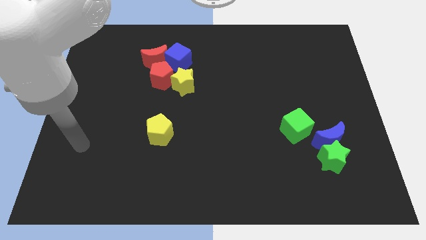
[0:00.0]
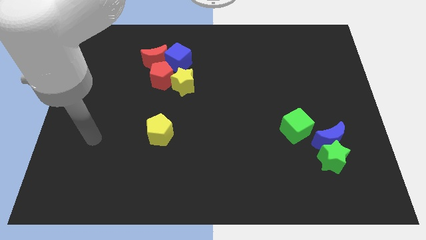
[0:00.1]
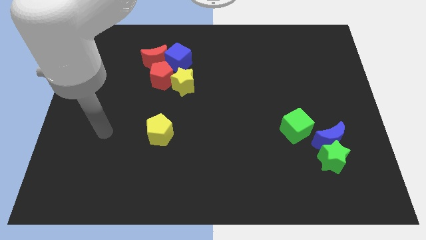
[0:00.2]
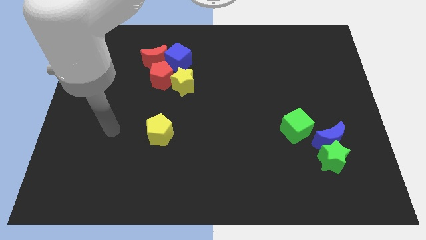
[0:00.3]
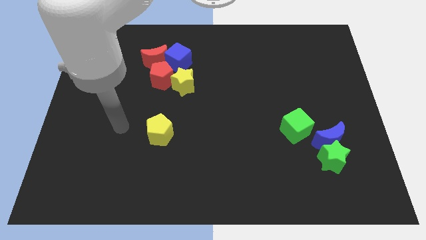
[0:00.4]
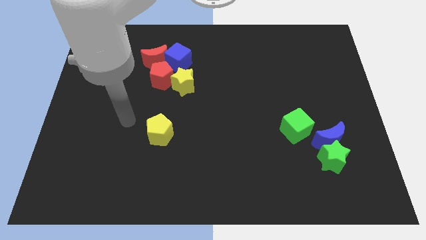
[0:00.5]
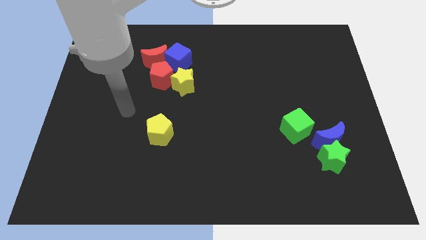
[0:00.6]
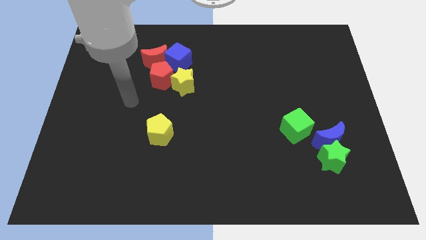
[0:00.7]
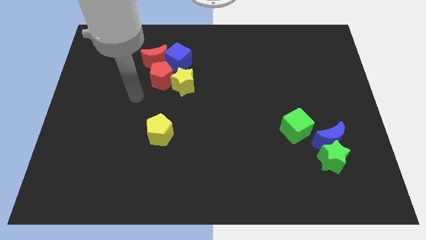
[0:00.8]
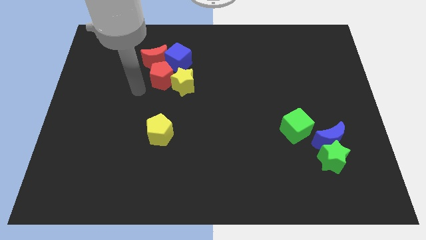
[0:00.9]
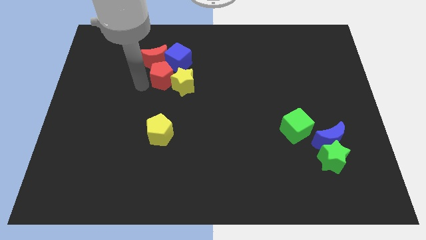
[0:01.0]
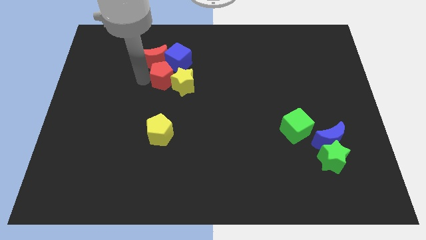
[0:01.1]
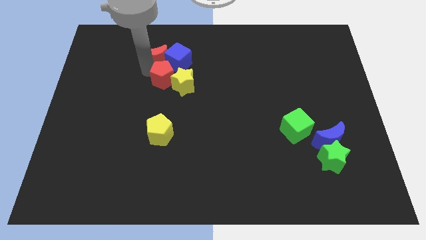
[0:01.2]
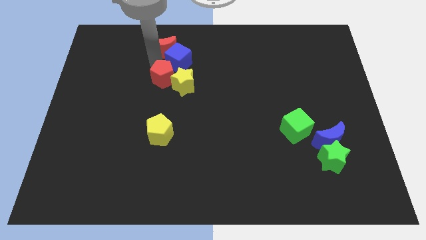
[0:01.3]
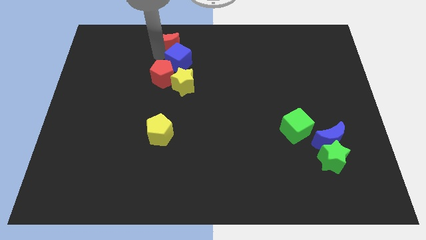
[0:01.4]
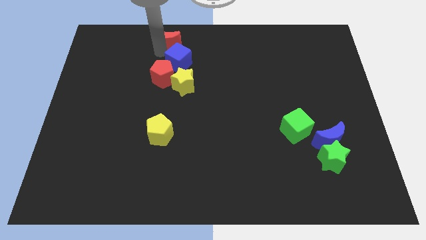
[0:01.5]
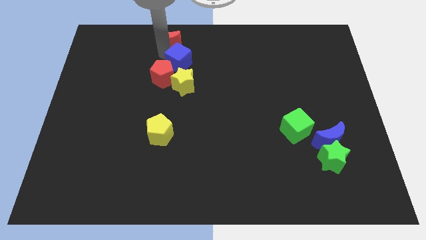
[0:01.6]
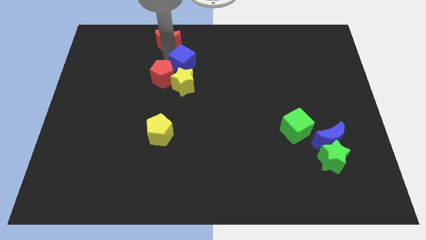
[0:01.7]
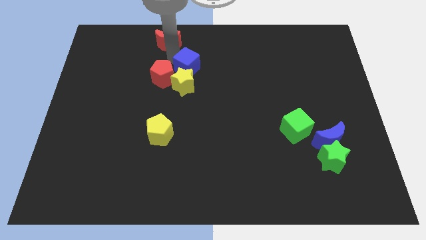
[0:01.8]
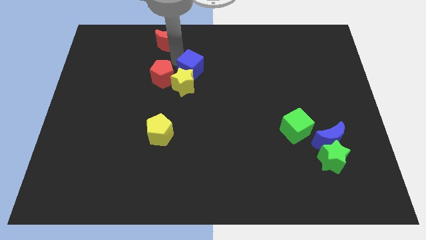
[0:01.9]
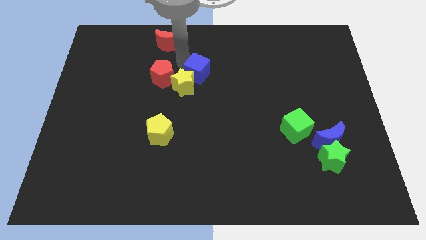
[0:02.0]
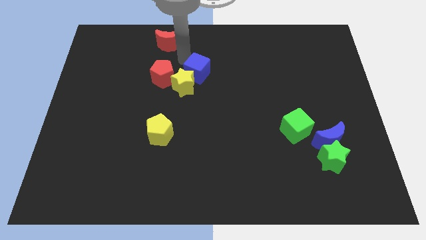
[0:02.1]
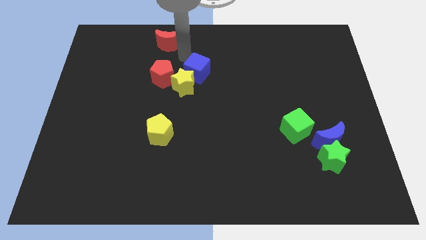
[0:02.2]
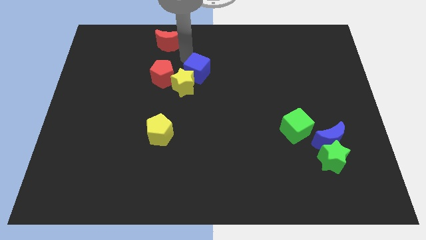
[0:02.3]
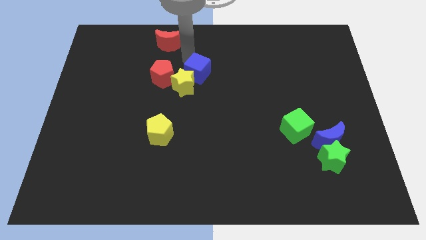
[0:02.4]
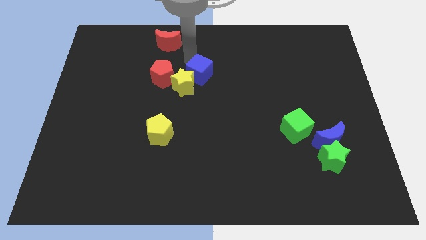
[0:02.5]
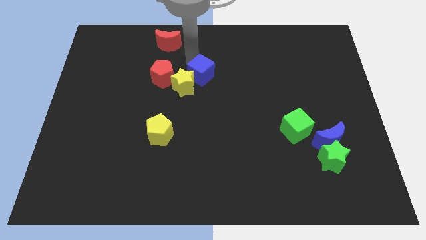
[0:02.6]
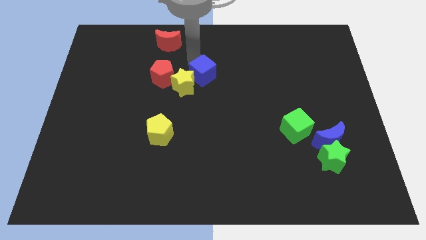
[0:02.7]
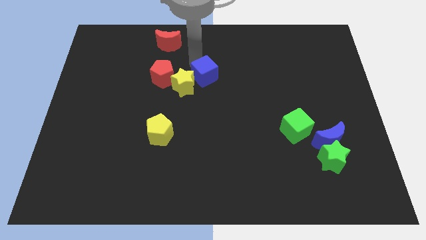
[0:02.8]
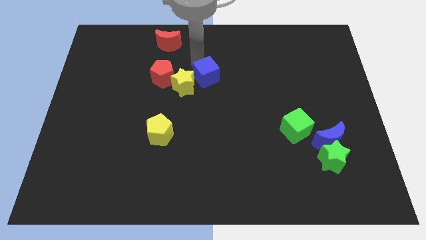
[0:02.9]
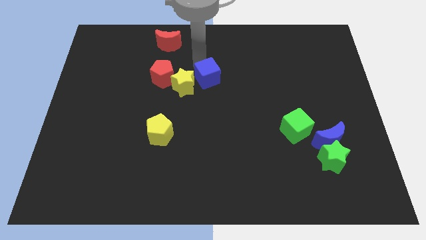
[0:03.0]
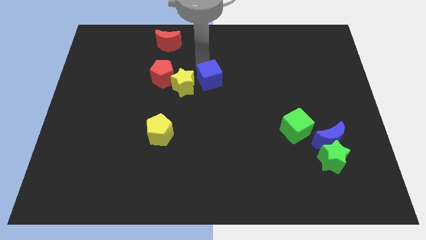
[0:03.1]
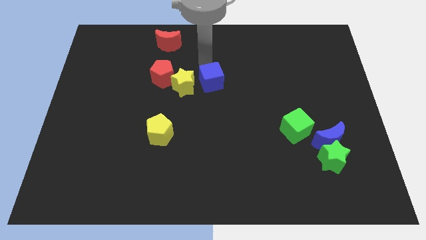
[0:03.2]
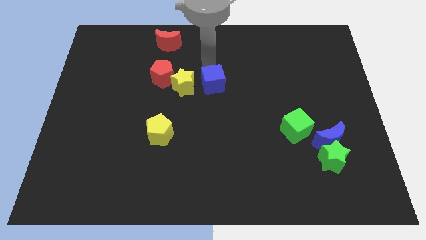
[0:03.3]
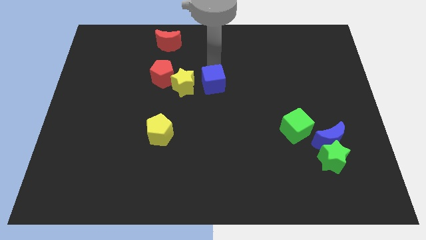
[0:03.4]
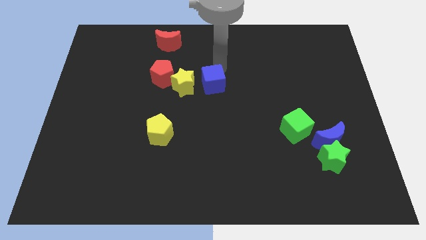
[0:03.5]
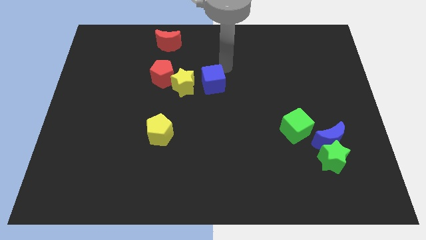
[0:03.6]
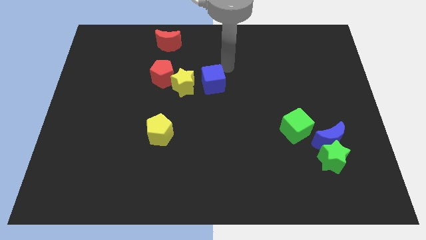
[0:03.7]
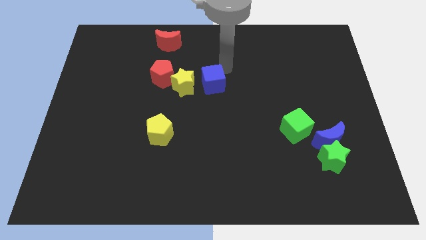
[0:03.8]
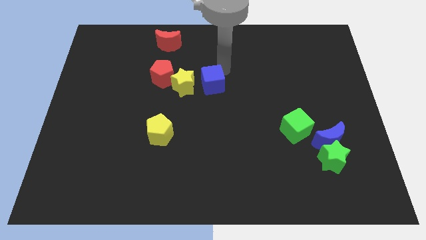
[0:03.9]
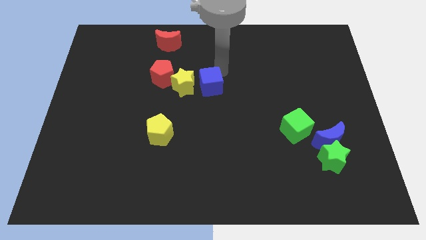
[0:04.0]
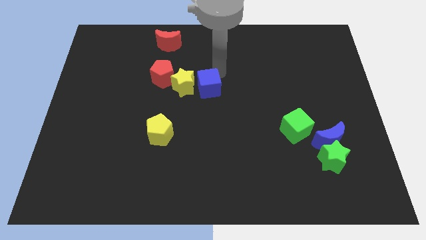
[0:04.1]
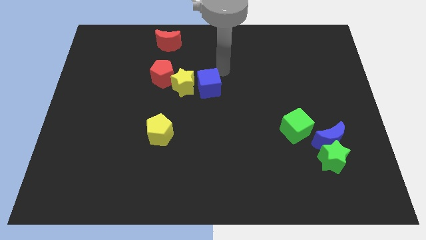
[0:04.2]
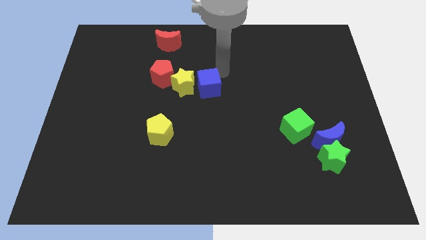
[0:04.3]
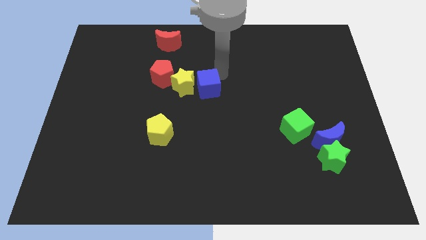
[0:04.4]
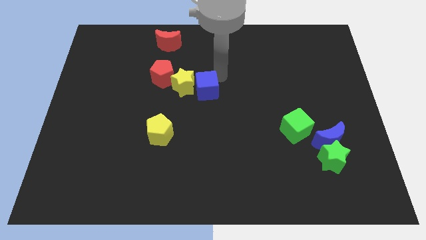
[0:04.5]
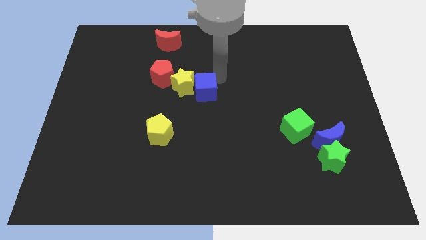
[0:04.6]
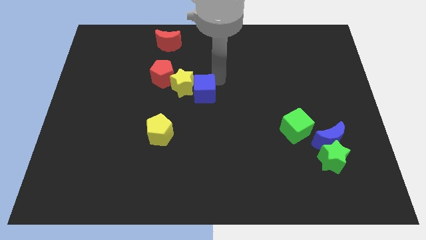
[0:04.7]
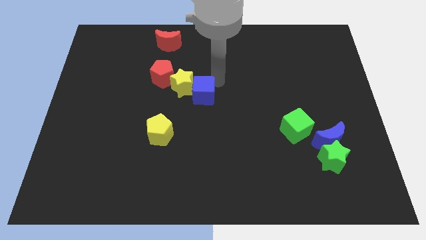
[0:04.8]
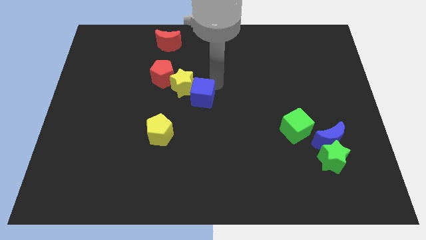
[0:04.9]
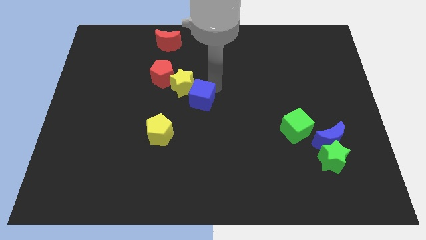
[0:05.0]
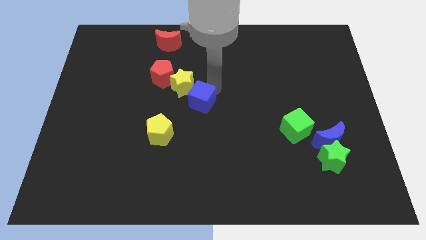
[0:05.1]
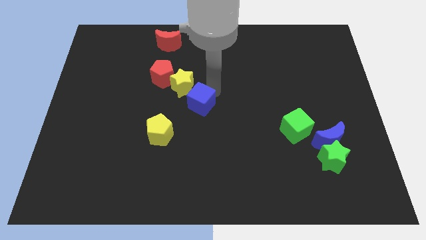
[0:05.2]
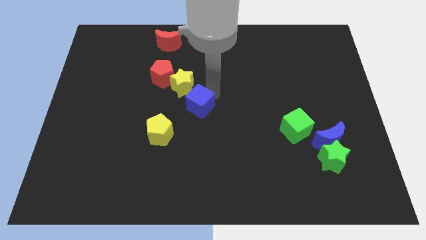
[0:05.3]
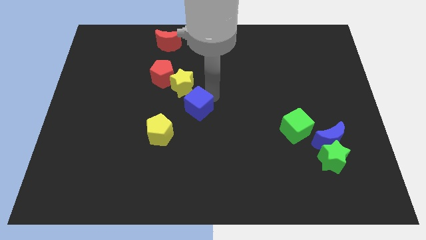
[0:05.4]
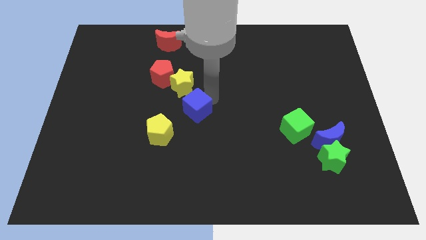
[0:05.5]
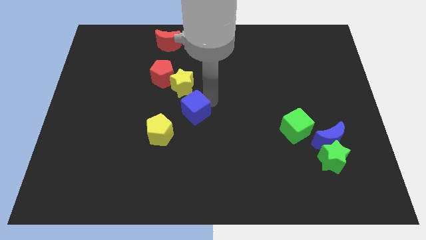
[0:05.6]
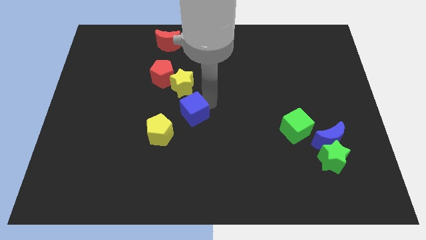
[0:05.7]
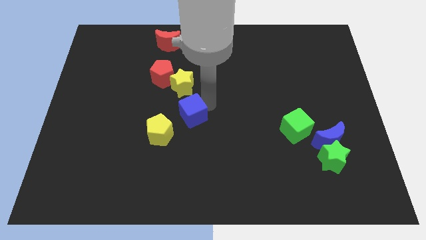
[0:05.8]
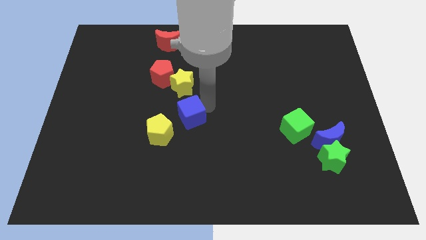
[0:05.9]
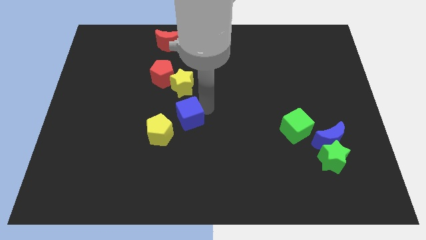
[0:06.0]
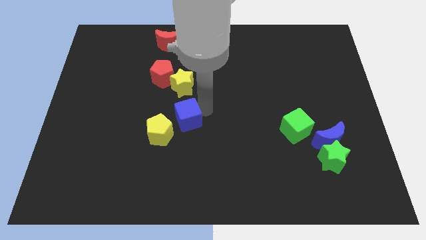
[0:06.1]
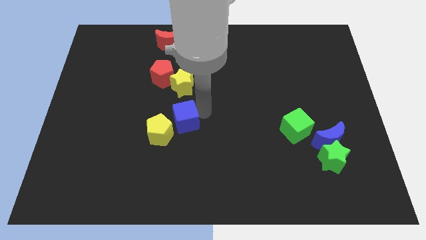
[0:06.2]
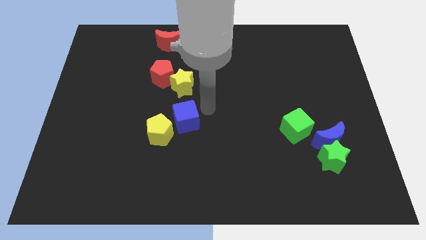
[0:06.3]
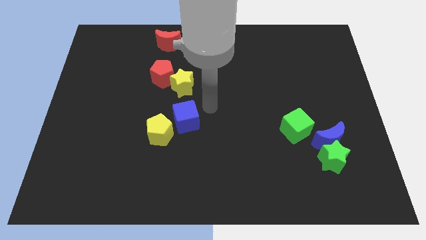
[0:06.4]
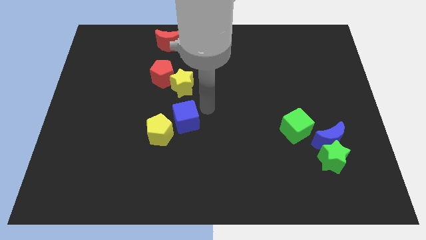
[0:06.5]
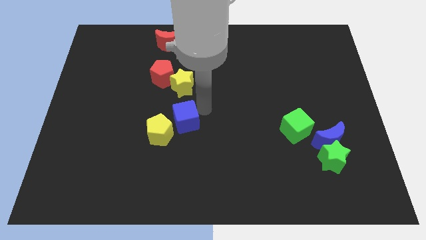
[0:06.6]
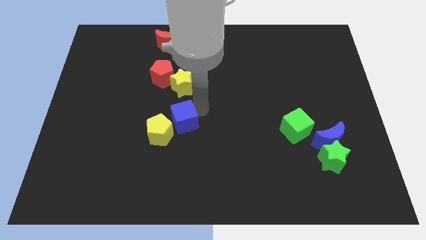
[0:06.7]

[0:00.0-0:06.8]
push the blue cube close to the yellow pentagon
